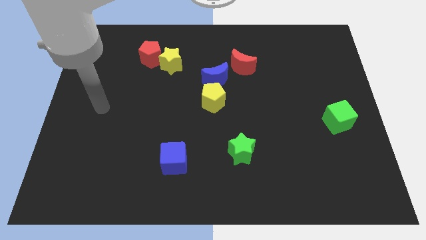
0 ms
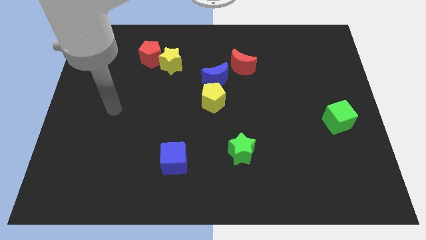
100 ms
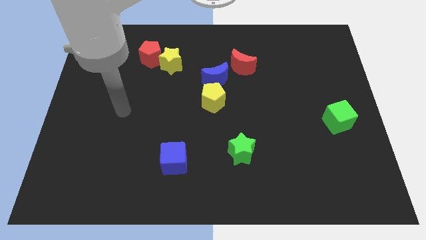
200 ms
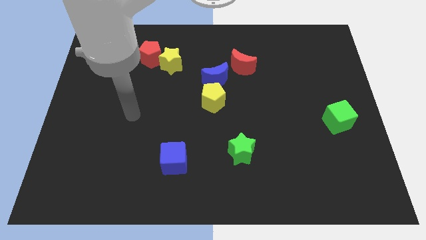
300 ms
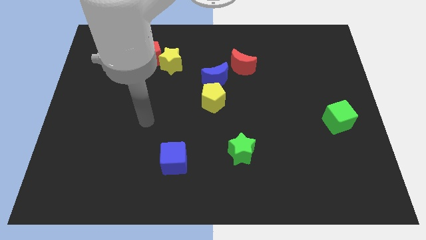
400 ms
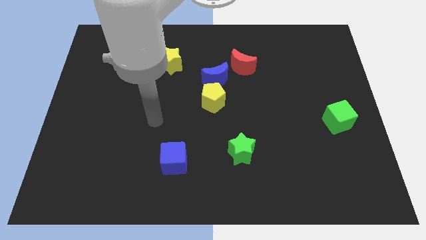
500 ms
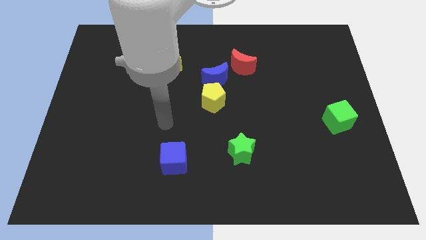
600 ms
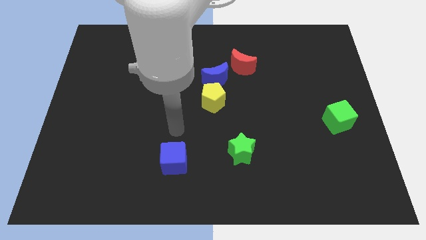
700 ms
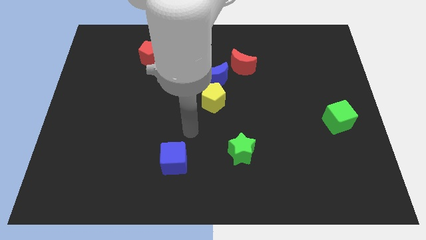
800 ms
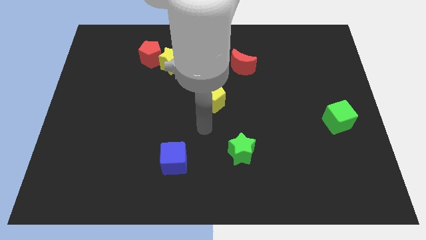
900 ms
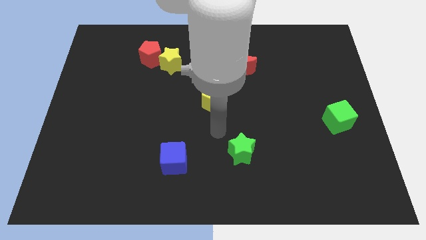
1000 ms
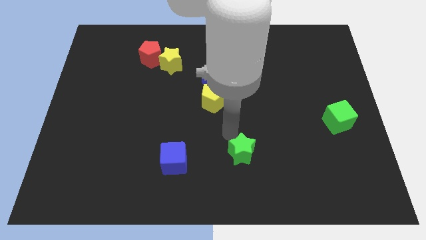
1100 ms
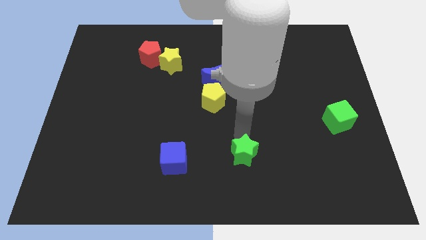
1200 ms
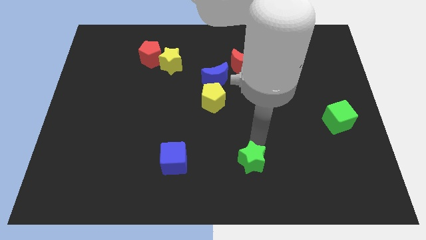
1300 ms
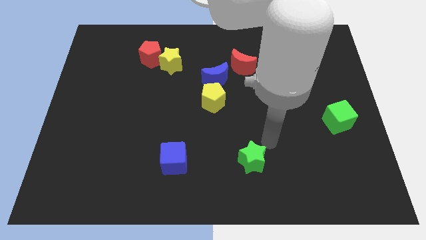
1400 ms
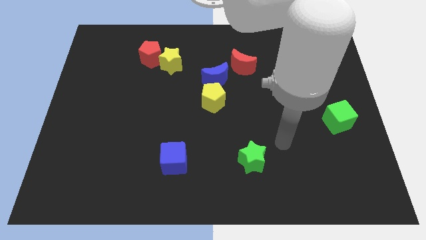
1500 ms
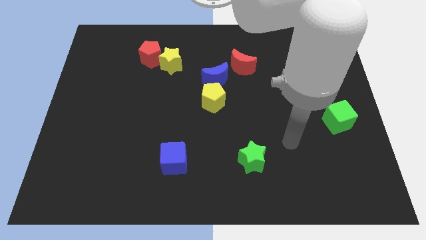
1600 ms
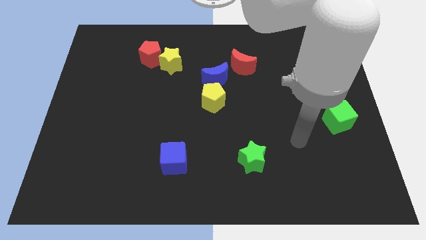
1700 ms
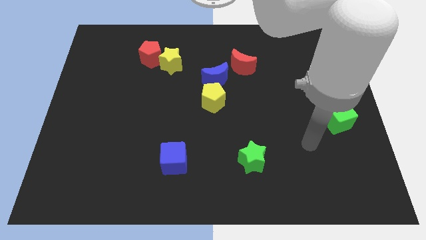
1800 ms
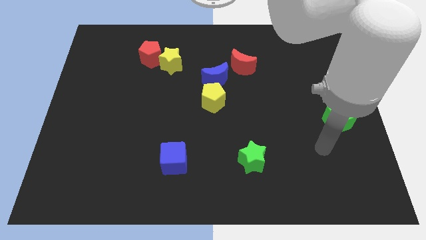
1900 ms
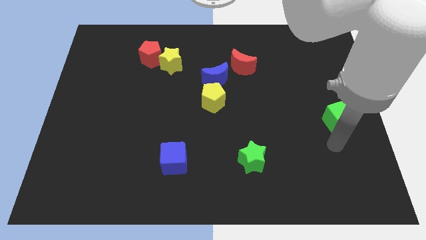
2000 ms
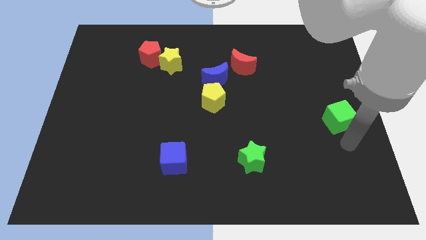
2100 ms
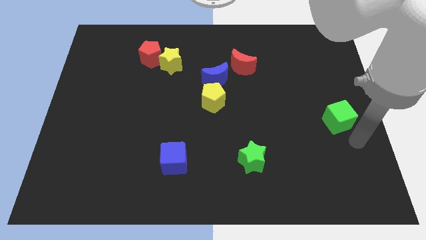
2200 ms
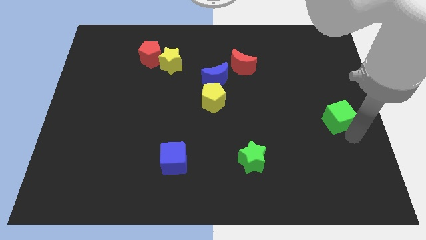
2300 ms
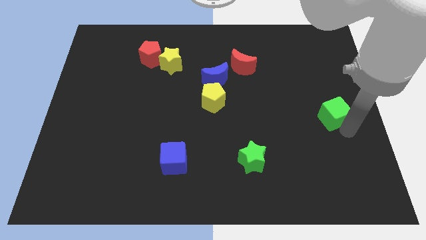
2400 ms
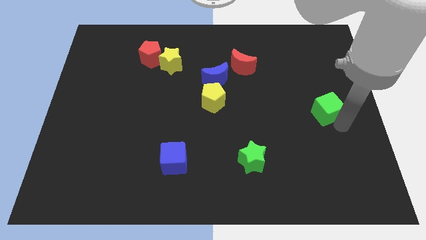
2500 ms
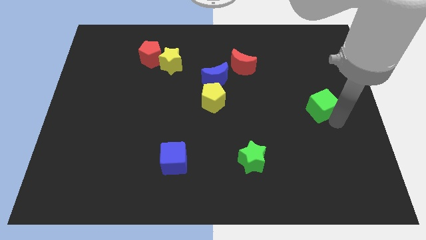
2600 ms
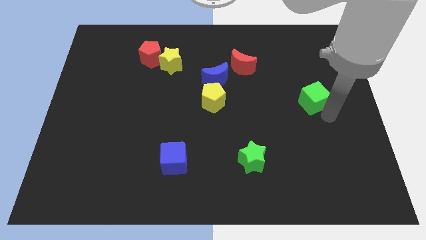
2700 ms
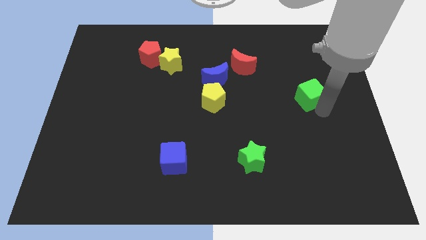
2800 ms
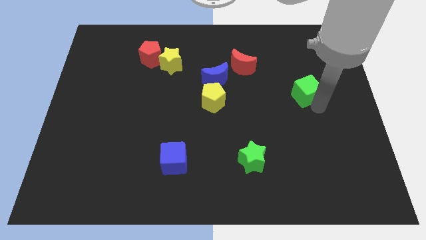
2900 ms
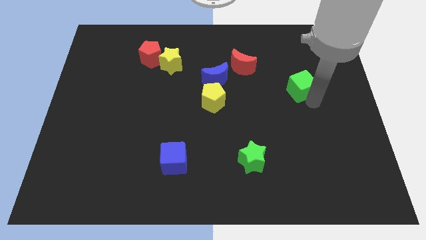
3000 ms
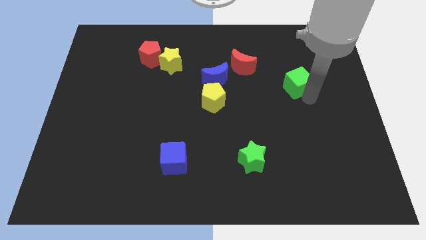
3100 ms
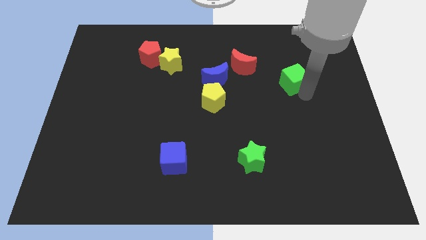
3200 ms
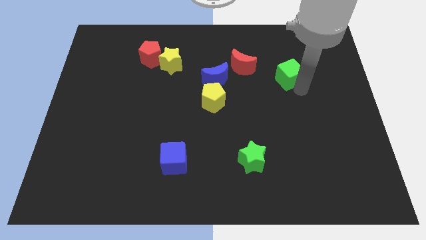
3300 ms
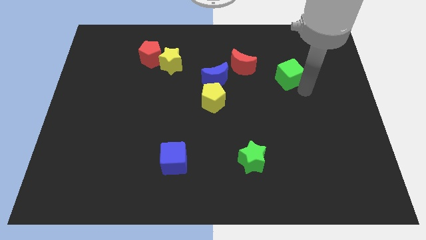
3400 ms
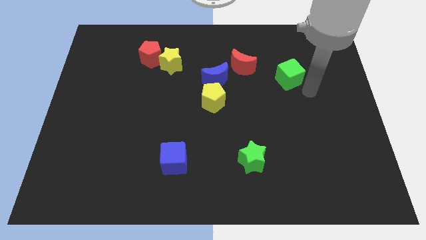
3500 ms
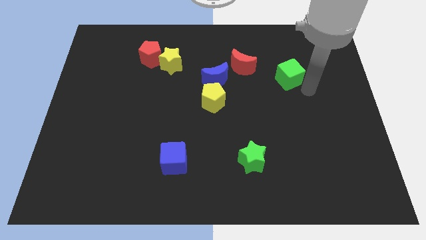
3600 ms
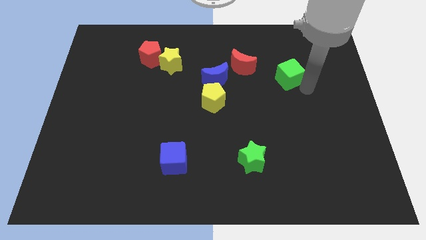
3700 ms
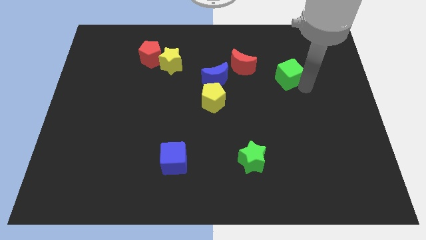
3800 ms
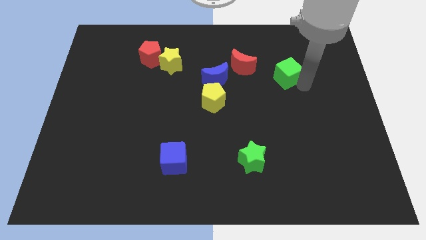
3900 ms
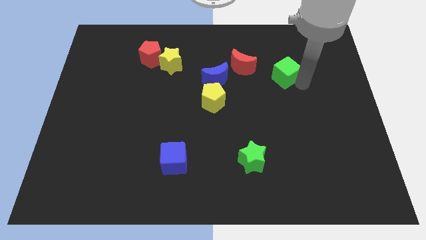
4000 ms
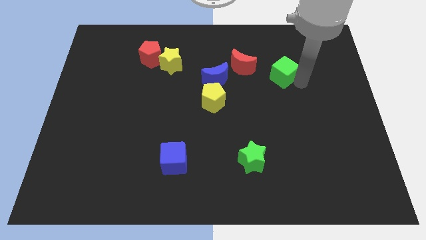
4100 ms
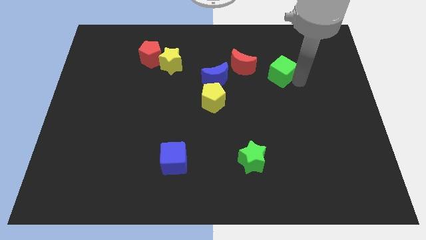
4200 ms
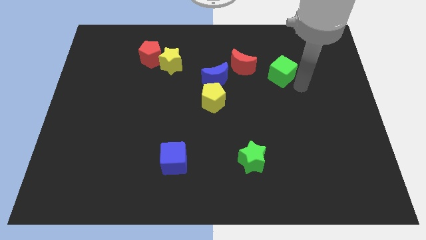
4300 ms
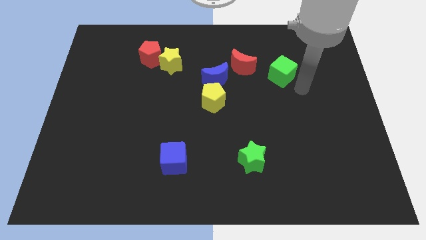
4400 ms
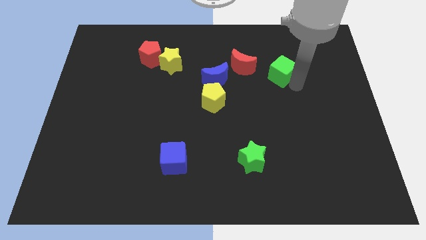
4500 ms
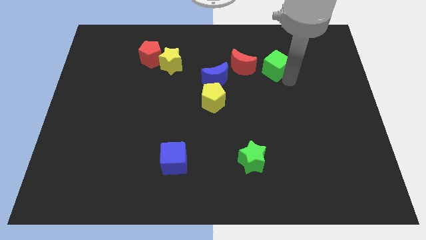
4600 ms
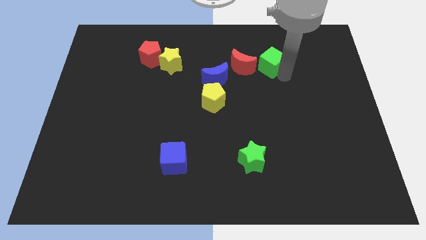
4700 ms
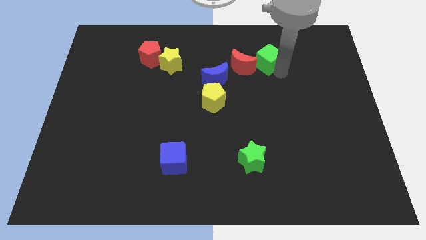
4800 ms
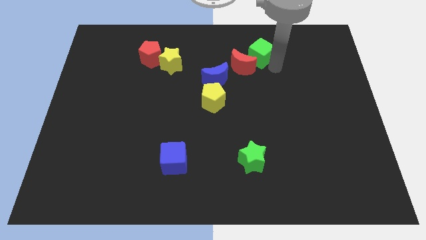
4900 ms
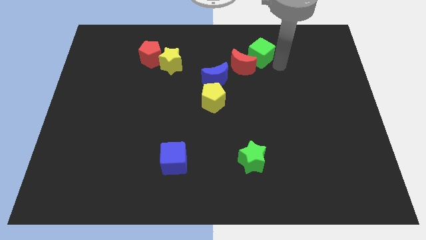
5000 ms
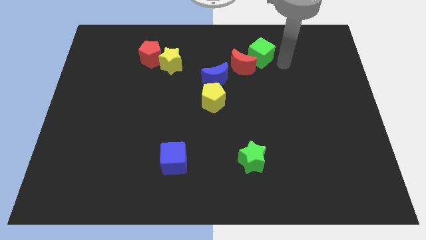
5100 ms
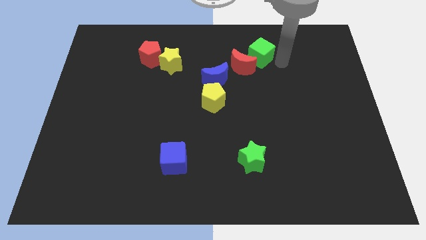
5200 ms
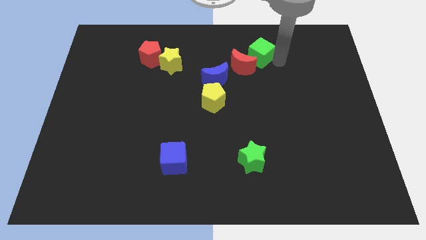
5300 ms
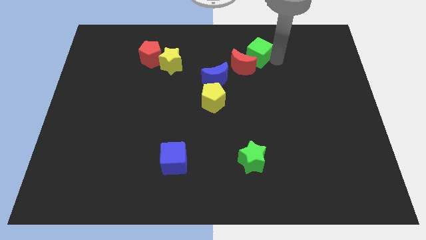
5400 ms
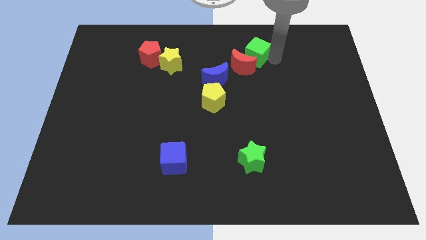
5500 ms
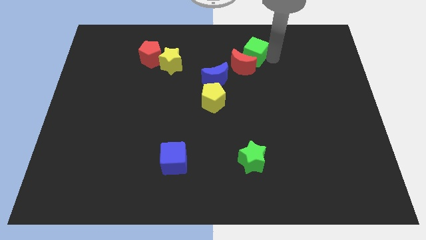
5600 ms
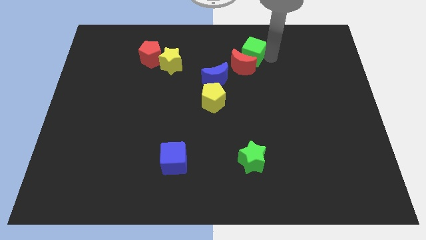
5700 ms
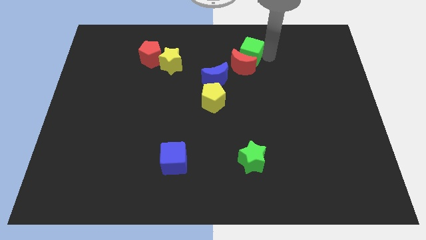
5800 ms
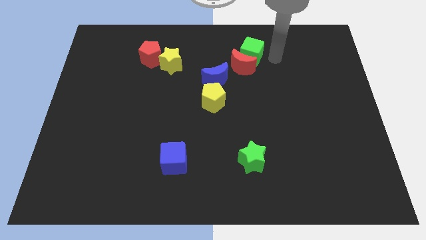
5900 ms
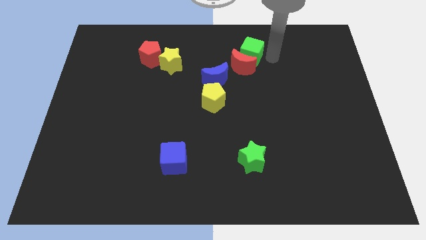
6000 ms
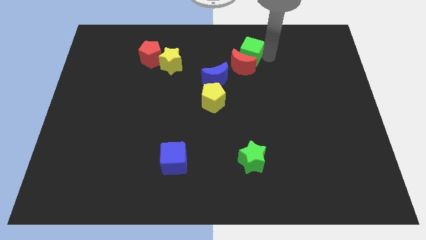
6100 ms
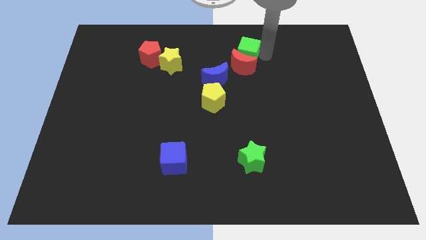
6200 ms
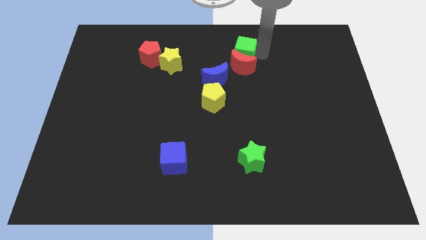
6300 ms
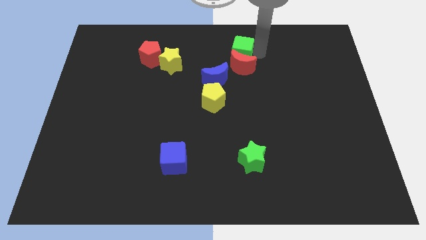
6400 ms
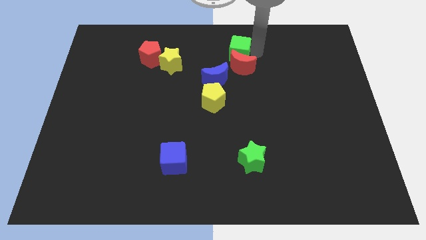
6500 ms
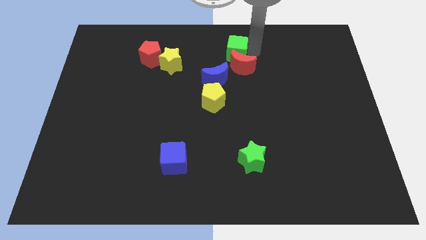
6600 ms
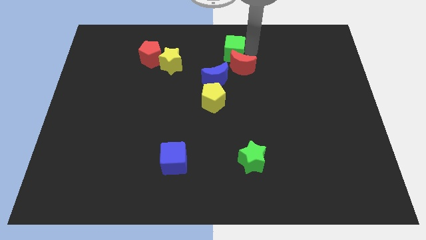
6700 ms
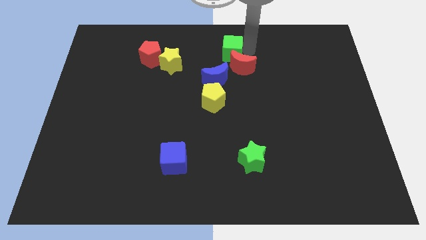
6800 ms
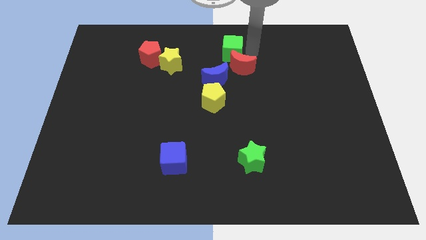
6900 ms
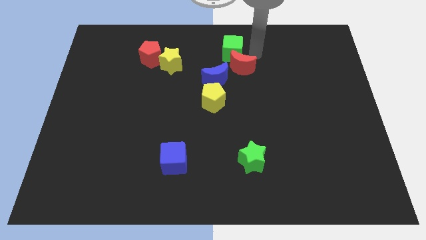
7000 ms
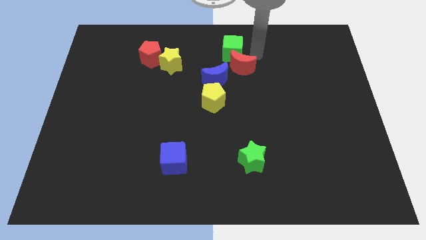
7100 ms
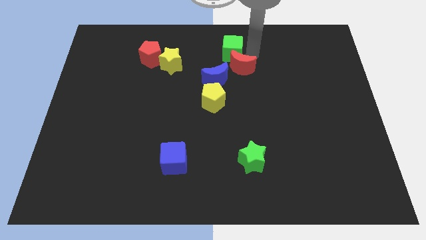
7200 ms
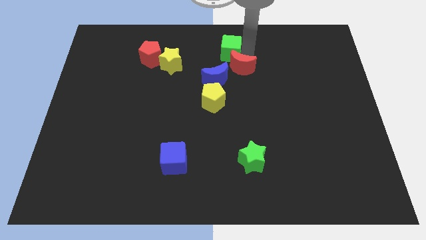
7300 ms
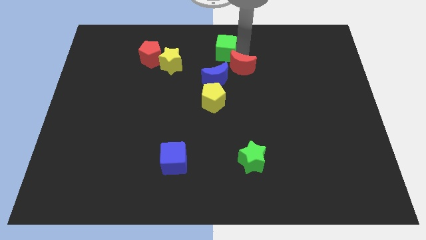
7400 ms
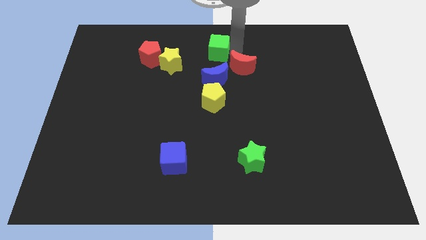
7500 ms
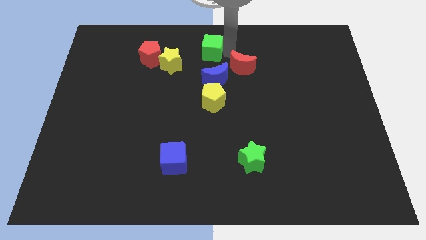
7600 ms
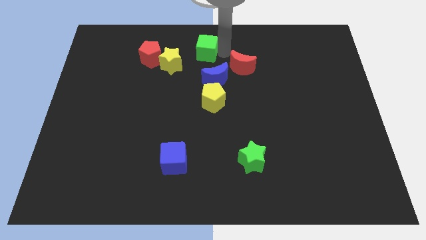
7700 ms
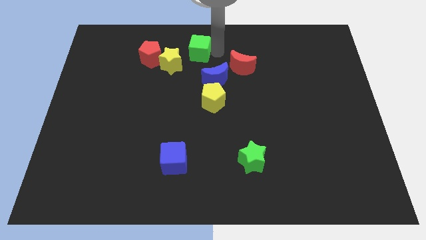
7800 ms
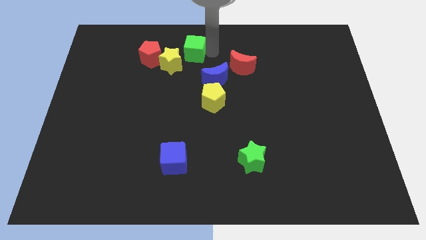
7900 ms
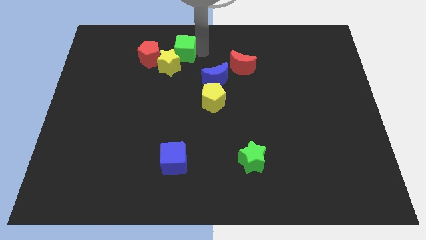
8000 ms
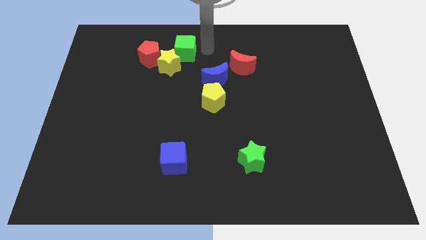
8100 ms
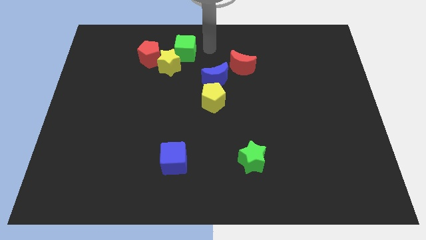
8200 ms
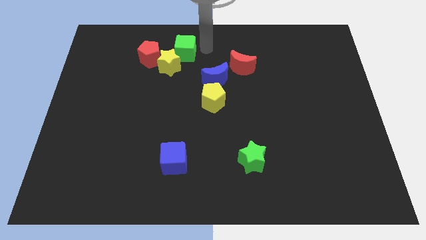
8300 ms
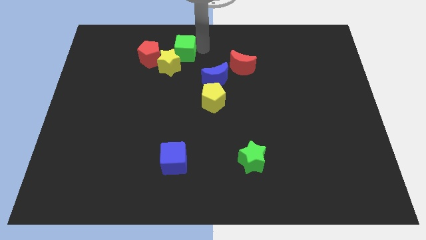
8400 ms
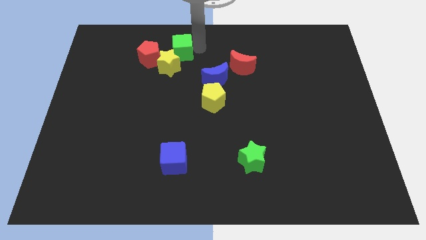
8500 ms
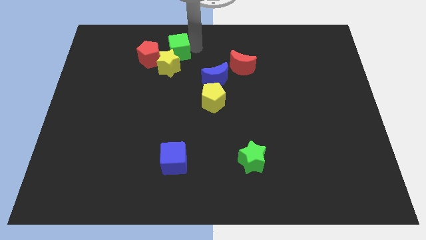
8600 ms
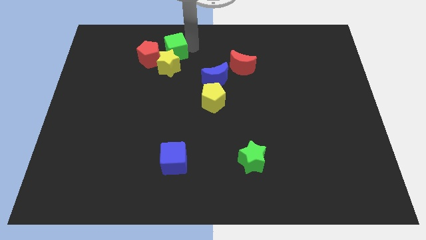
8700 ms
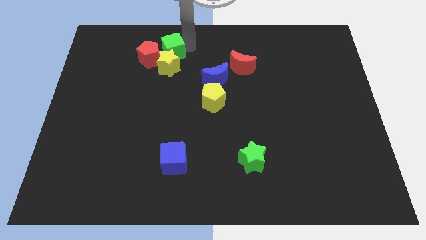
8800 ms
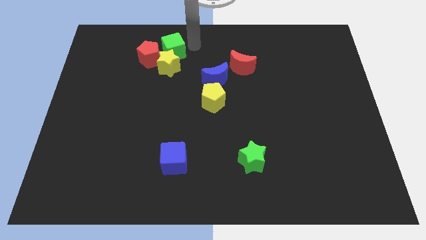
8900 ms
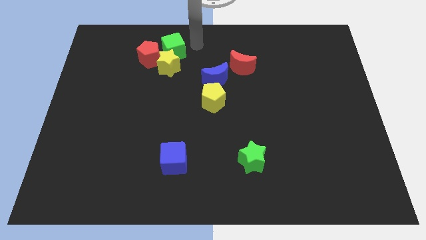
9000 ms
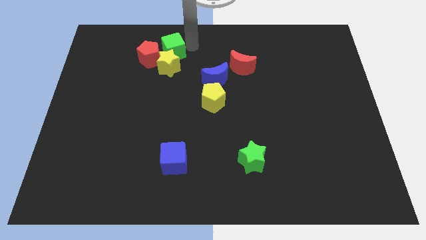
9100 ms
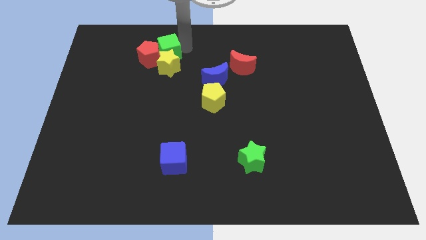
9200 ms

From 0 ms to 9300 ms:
move the green cube close to the red pentagon
